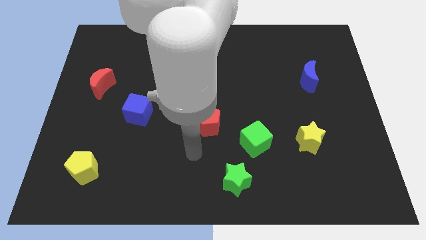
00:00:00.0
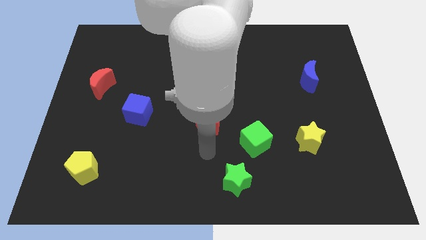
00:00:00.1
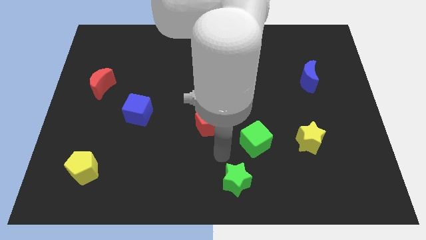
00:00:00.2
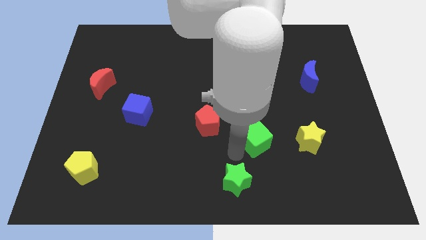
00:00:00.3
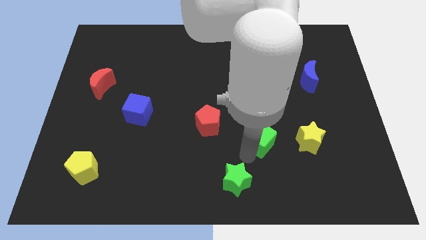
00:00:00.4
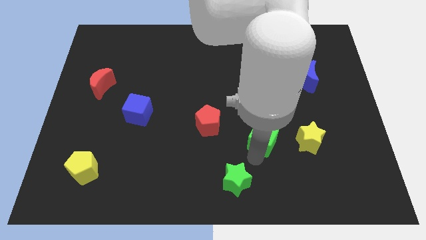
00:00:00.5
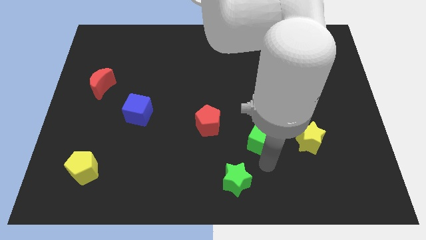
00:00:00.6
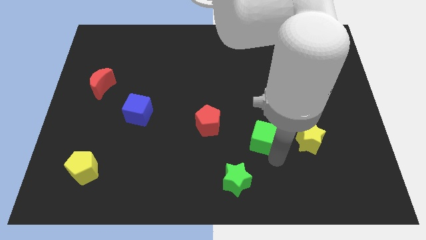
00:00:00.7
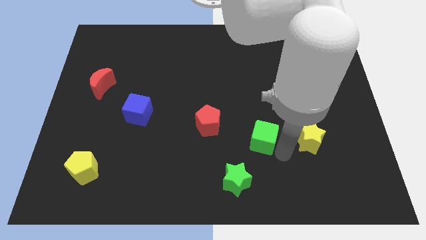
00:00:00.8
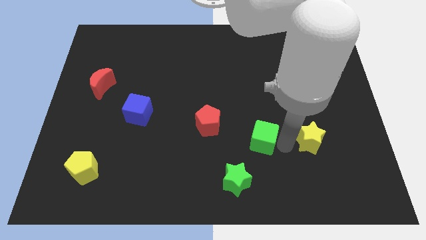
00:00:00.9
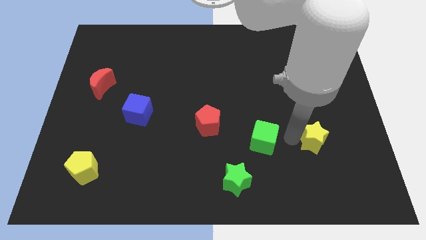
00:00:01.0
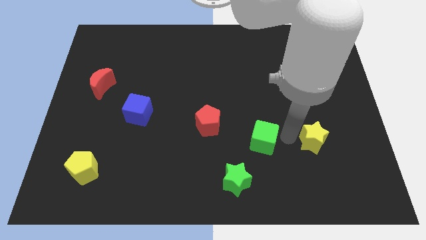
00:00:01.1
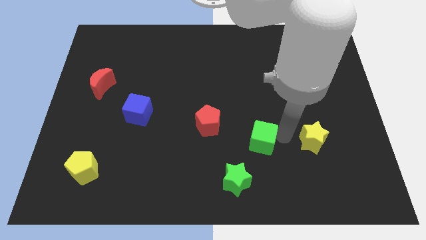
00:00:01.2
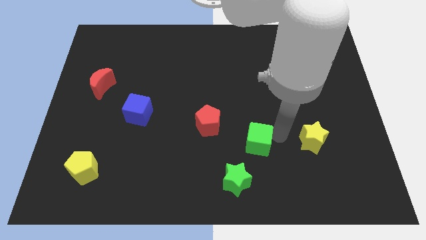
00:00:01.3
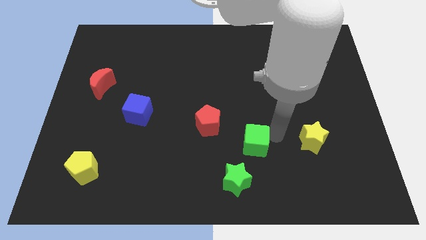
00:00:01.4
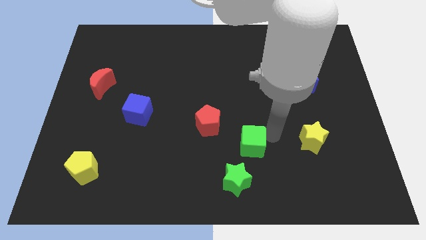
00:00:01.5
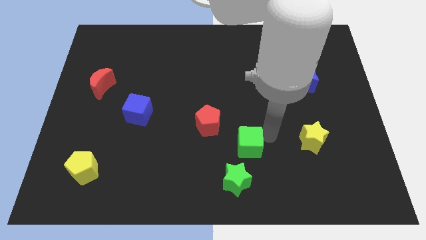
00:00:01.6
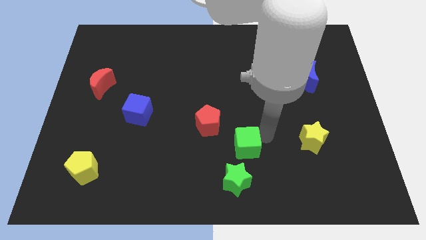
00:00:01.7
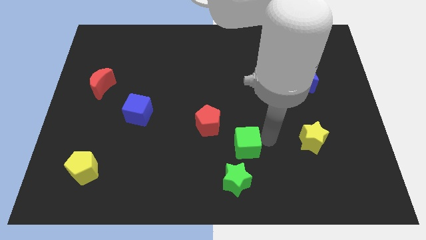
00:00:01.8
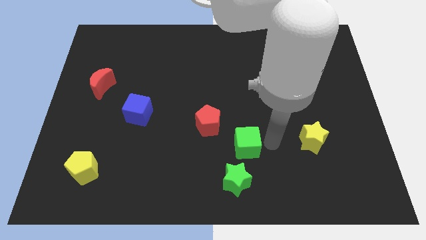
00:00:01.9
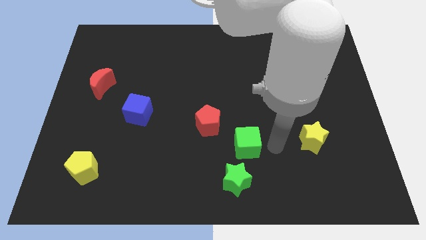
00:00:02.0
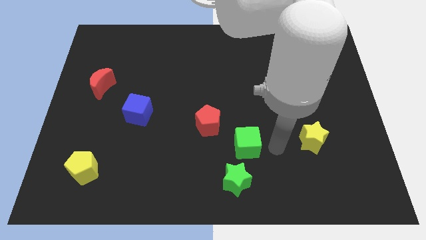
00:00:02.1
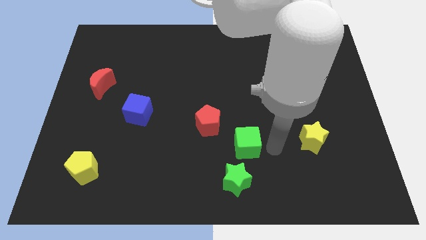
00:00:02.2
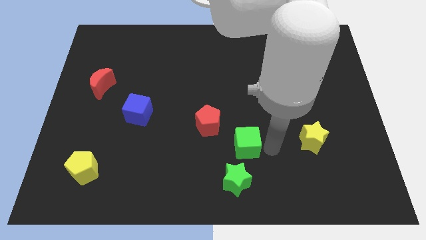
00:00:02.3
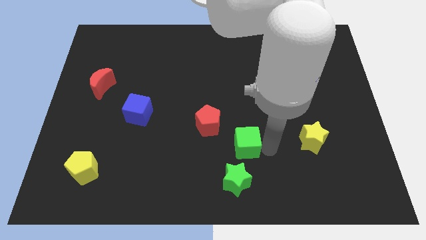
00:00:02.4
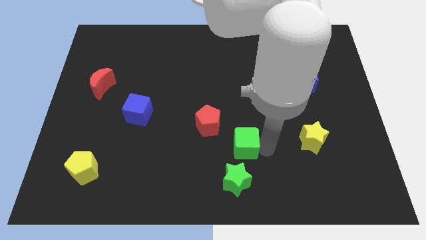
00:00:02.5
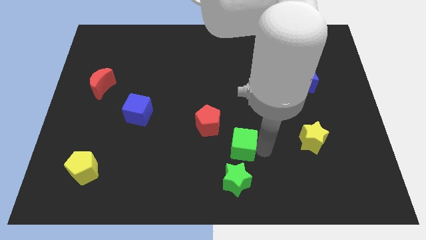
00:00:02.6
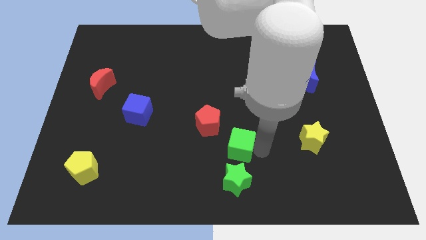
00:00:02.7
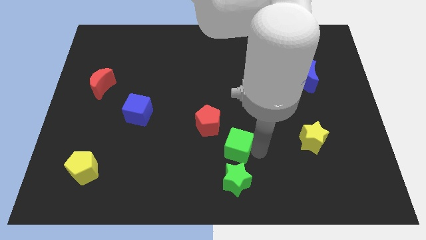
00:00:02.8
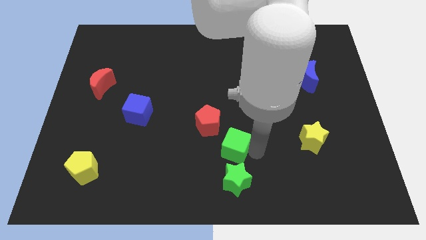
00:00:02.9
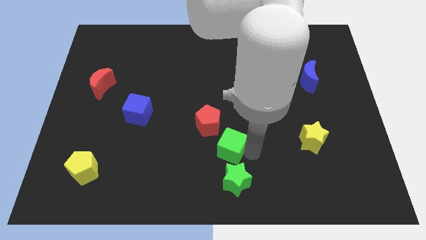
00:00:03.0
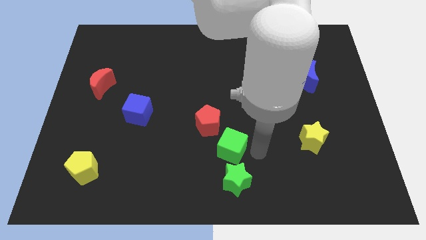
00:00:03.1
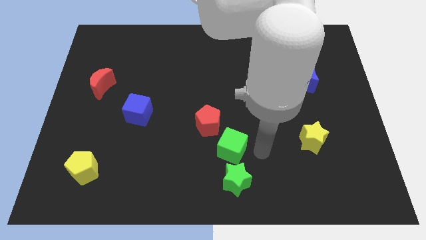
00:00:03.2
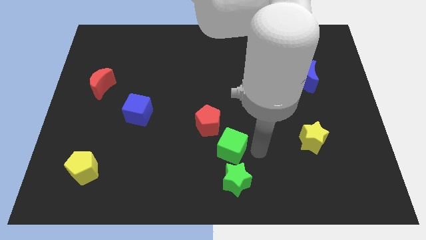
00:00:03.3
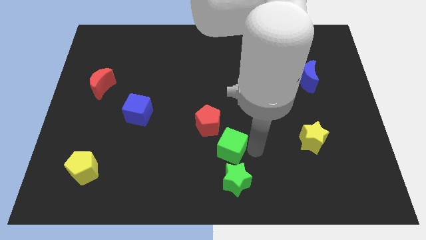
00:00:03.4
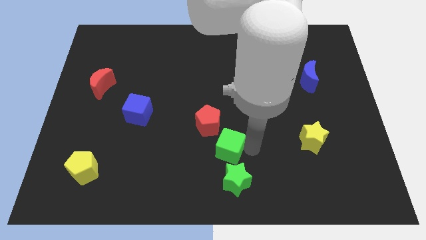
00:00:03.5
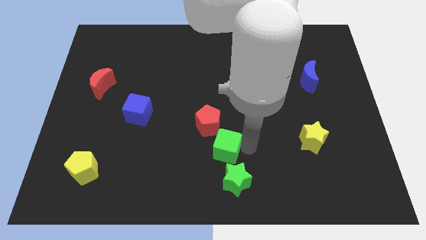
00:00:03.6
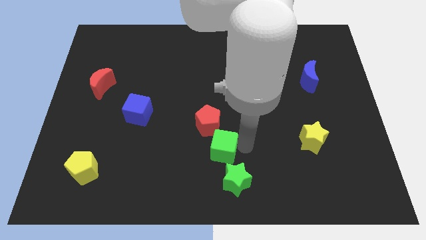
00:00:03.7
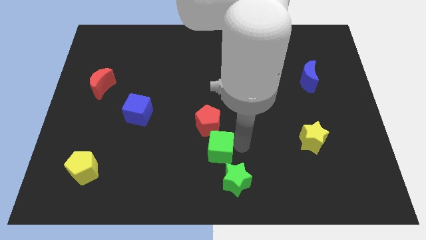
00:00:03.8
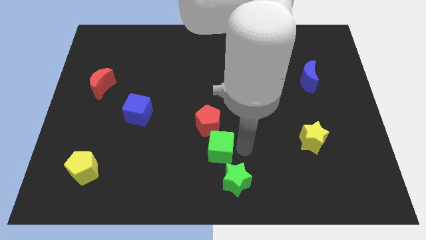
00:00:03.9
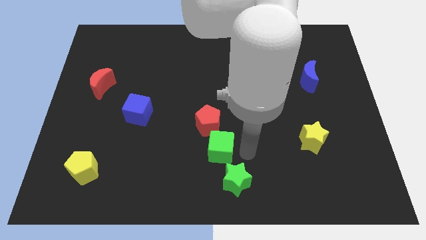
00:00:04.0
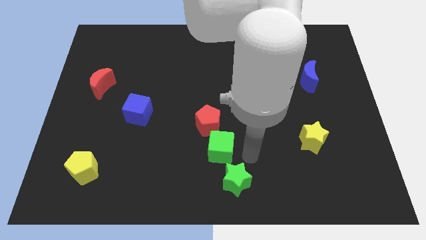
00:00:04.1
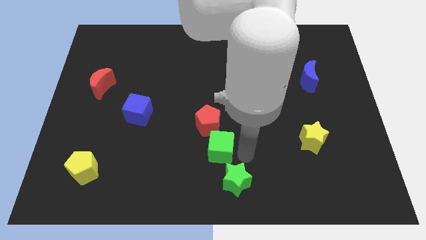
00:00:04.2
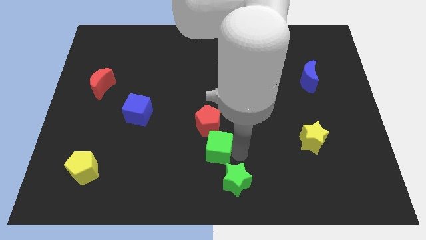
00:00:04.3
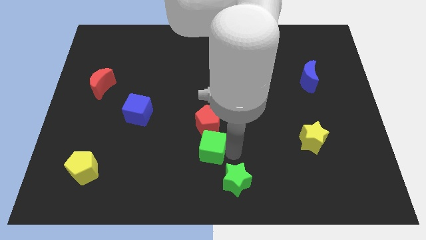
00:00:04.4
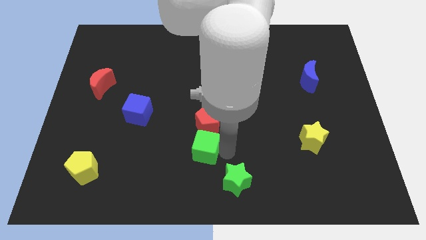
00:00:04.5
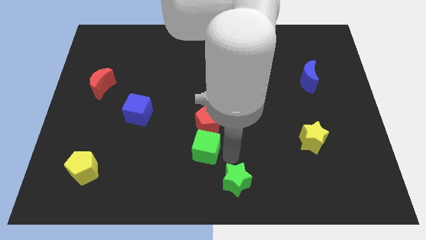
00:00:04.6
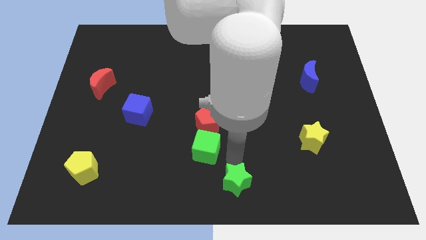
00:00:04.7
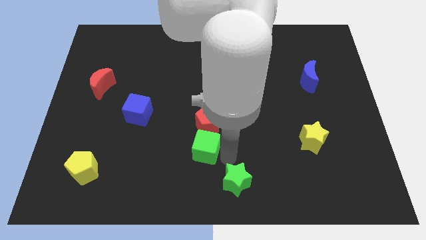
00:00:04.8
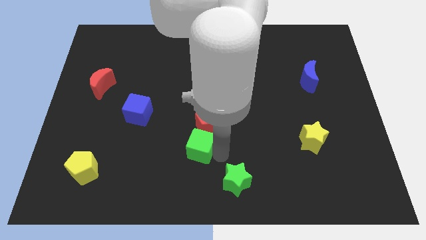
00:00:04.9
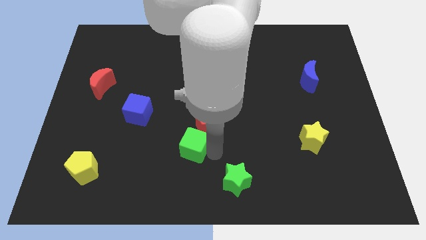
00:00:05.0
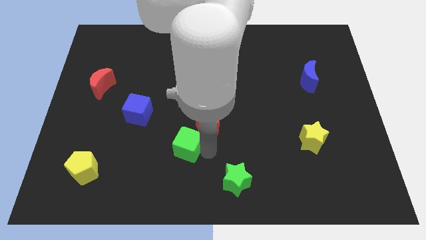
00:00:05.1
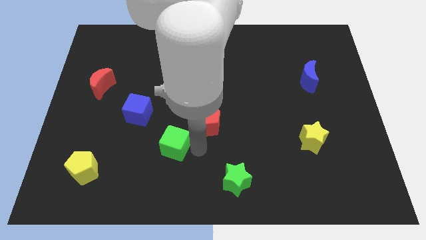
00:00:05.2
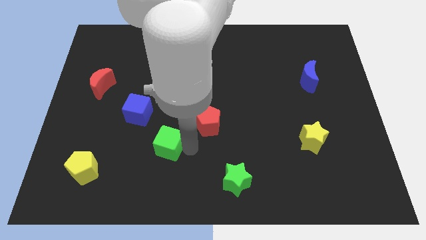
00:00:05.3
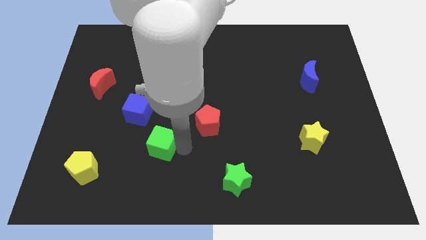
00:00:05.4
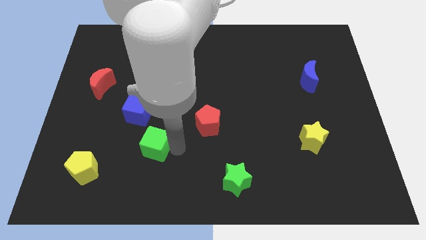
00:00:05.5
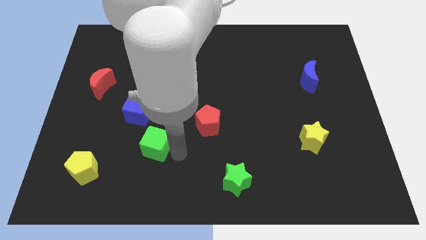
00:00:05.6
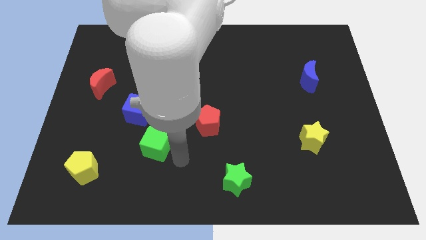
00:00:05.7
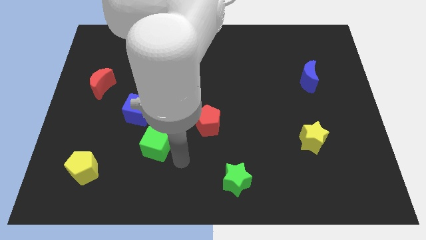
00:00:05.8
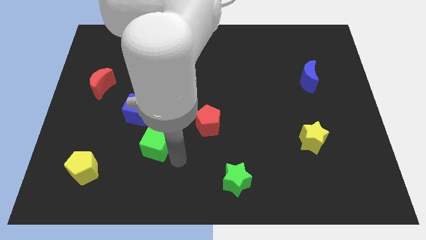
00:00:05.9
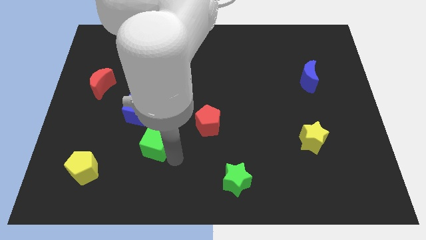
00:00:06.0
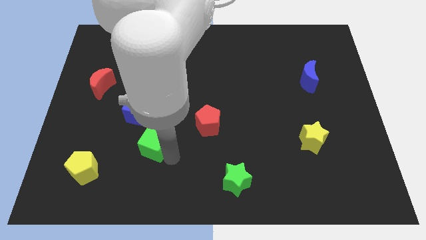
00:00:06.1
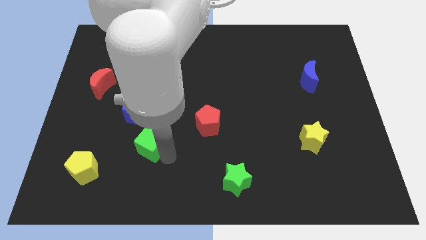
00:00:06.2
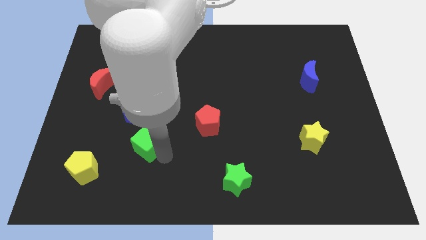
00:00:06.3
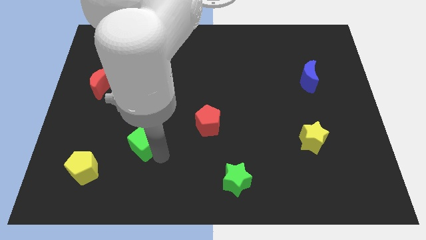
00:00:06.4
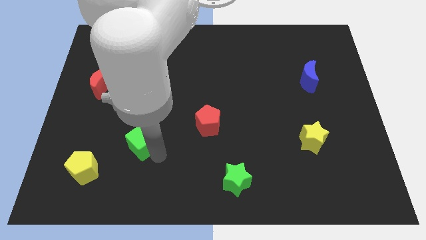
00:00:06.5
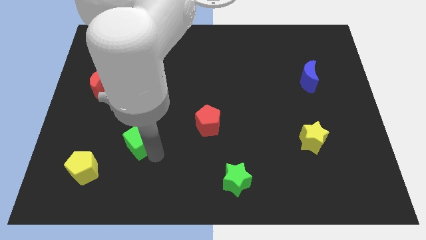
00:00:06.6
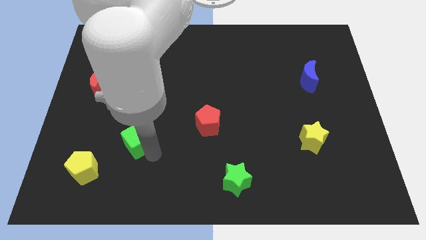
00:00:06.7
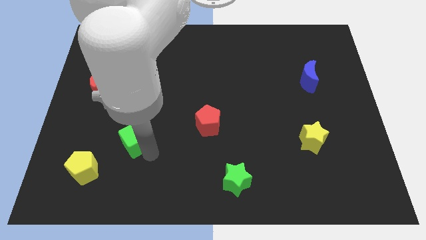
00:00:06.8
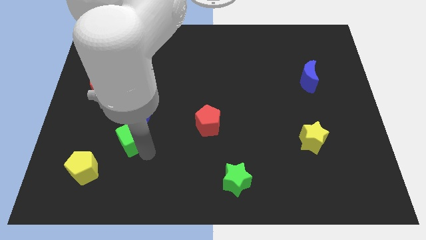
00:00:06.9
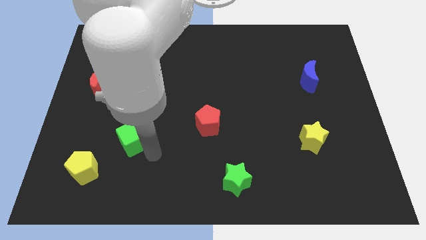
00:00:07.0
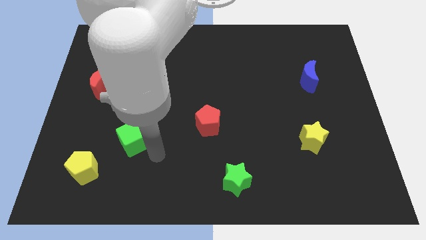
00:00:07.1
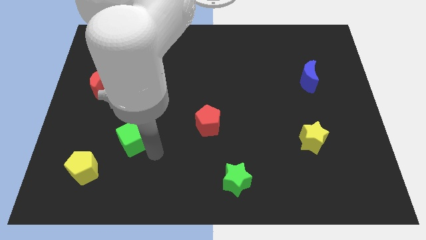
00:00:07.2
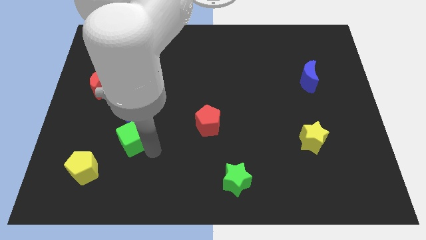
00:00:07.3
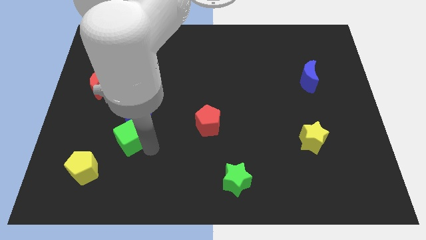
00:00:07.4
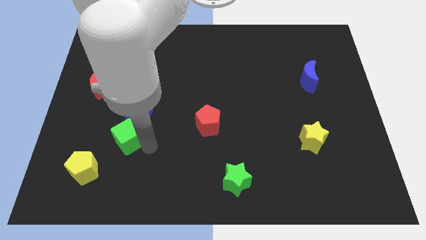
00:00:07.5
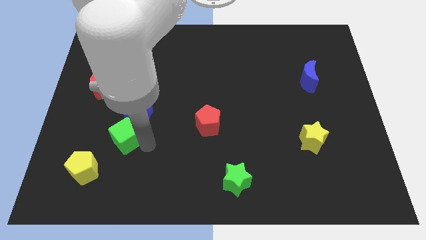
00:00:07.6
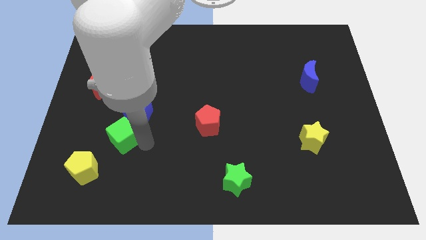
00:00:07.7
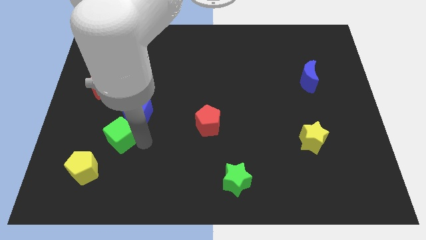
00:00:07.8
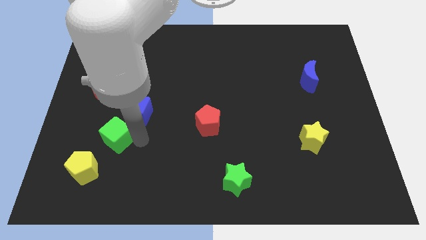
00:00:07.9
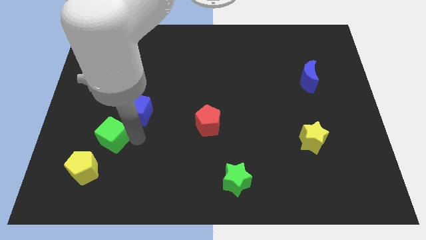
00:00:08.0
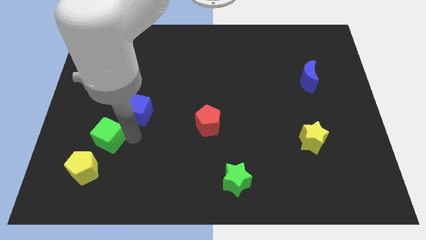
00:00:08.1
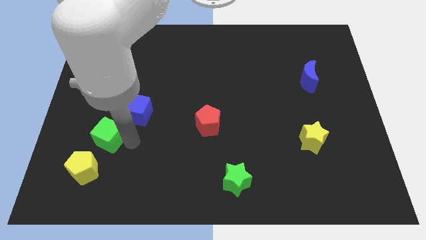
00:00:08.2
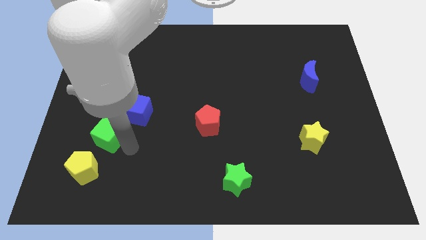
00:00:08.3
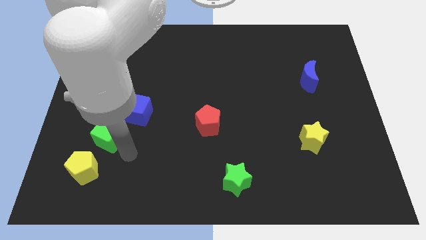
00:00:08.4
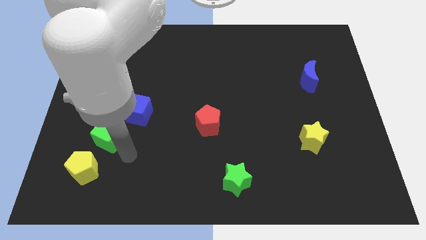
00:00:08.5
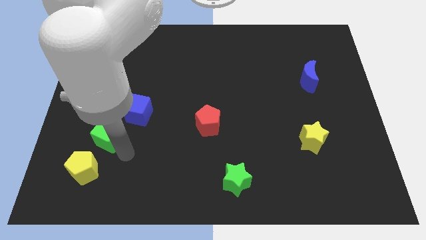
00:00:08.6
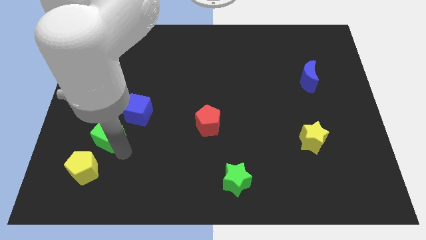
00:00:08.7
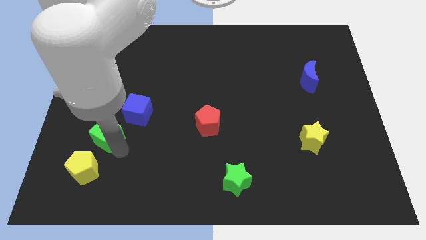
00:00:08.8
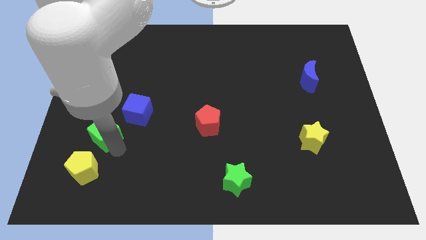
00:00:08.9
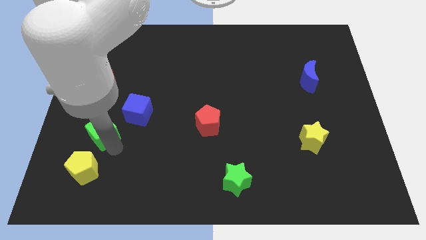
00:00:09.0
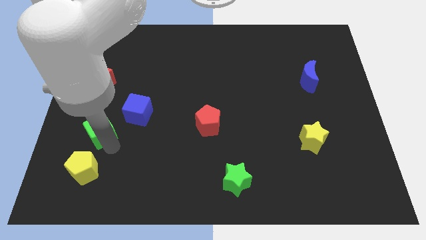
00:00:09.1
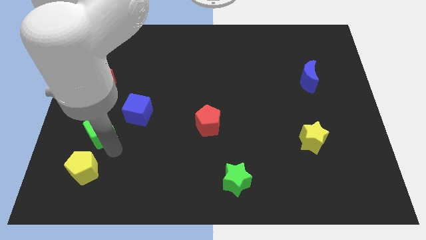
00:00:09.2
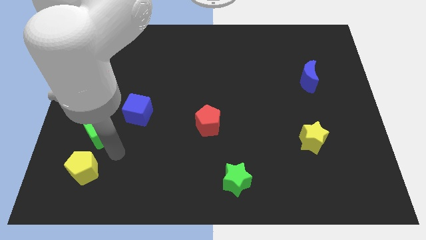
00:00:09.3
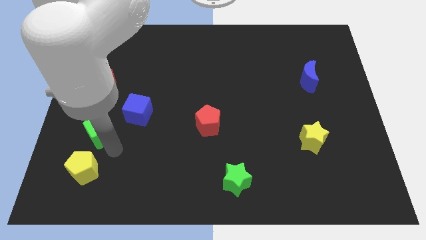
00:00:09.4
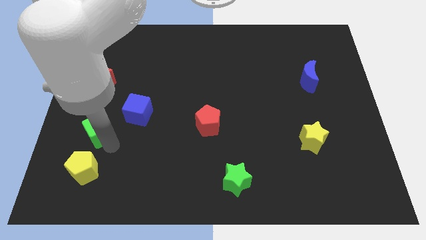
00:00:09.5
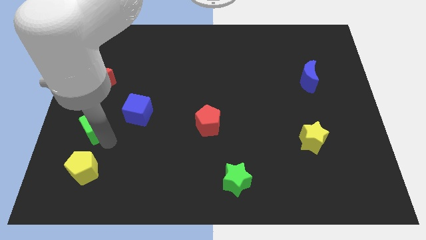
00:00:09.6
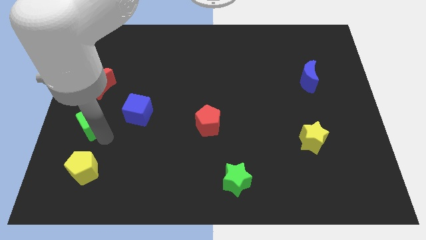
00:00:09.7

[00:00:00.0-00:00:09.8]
slide the green cube to the left side
